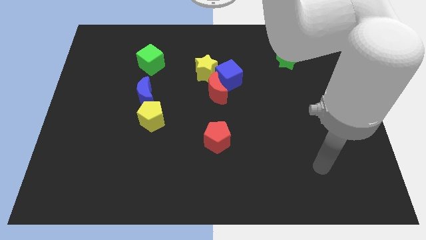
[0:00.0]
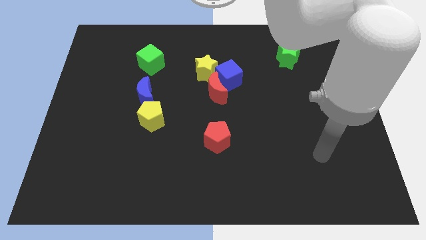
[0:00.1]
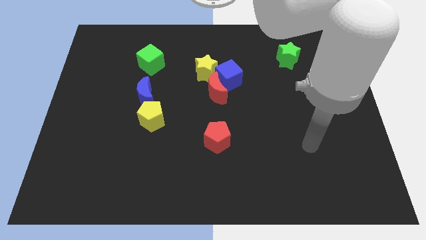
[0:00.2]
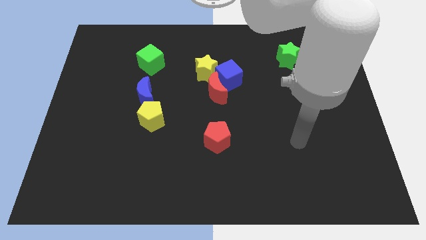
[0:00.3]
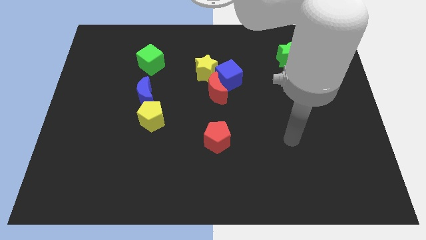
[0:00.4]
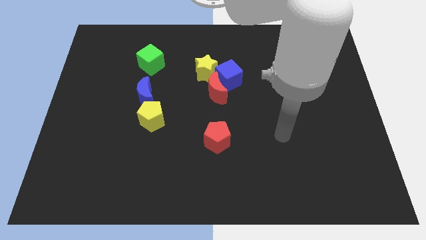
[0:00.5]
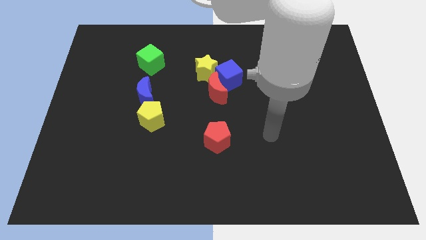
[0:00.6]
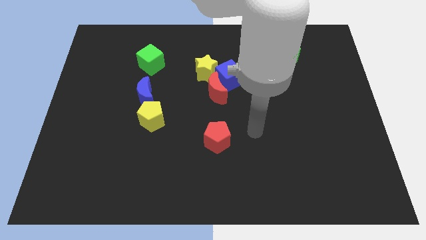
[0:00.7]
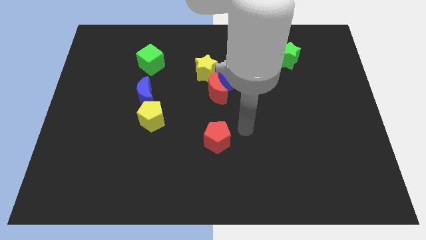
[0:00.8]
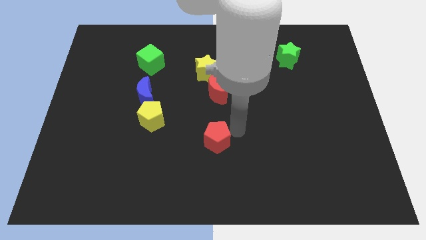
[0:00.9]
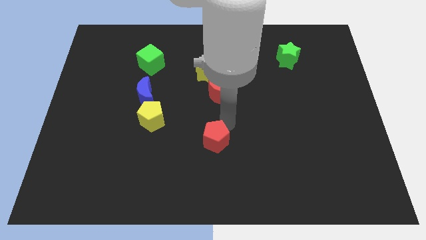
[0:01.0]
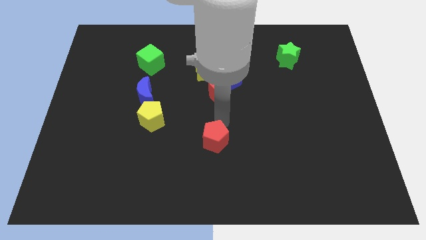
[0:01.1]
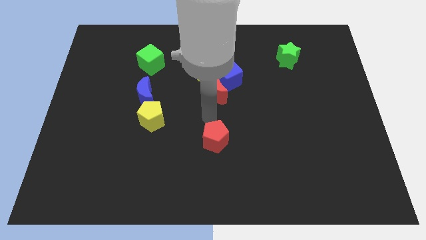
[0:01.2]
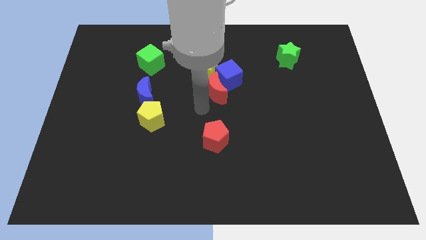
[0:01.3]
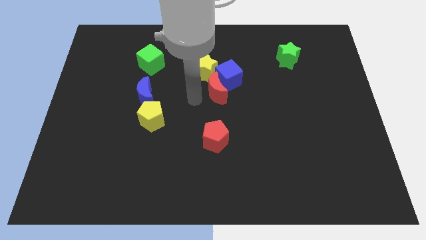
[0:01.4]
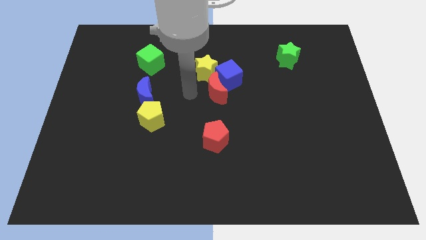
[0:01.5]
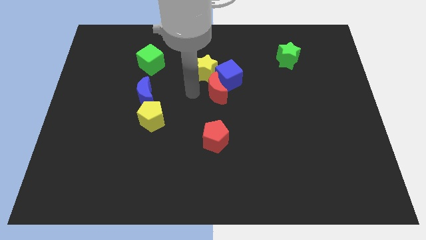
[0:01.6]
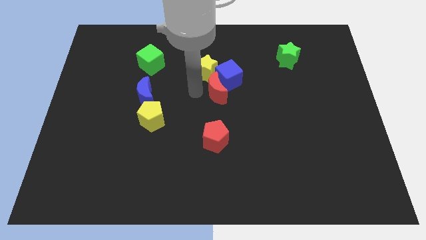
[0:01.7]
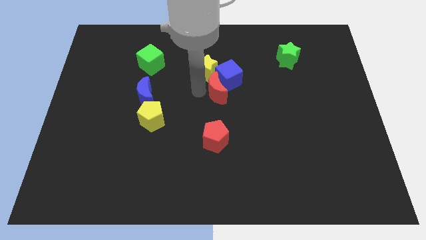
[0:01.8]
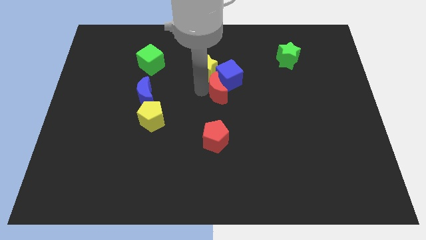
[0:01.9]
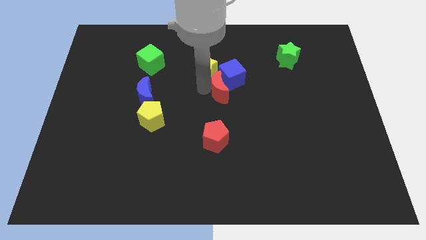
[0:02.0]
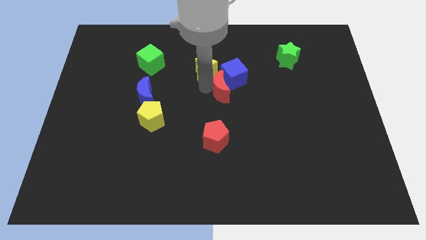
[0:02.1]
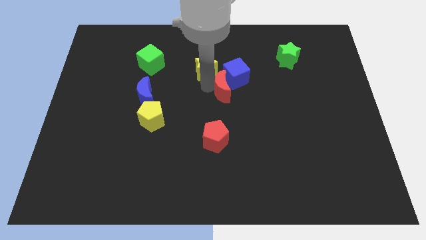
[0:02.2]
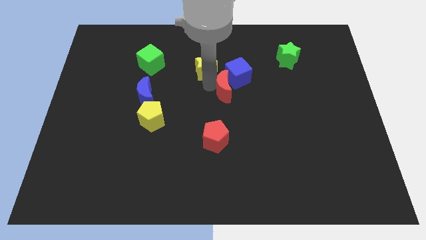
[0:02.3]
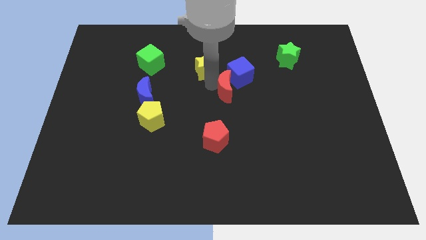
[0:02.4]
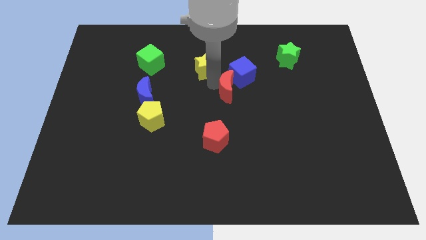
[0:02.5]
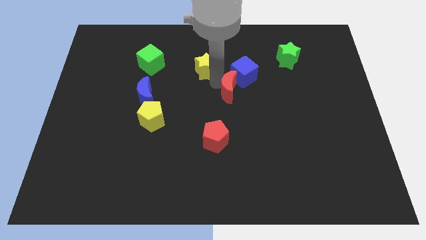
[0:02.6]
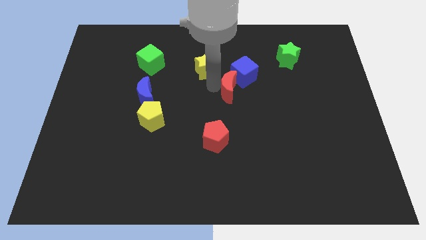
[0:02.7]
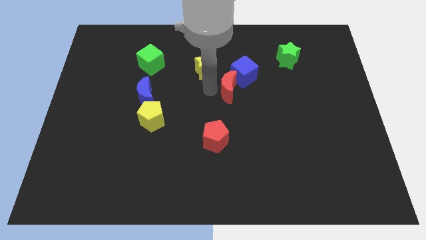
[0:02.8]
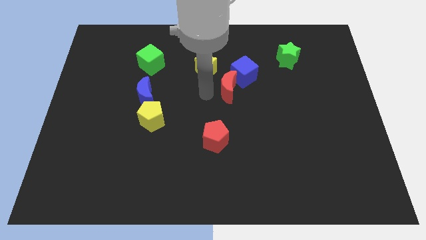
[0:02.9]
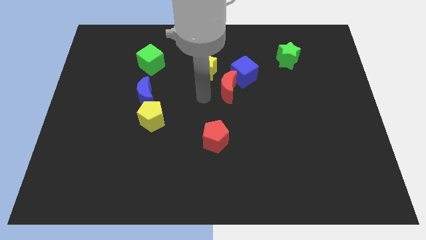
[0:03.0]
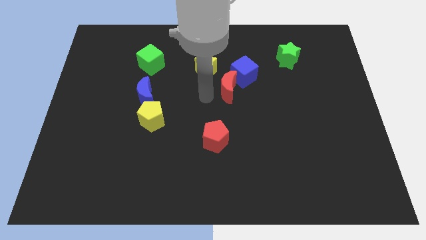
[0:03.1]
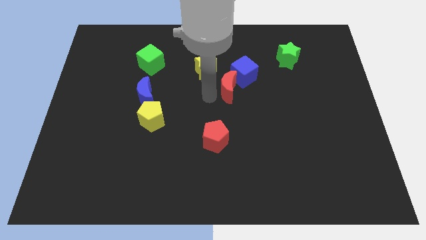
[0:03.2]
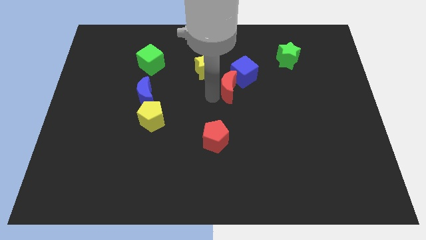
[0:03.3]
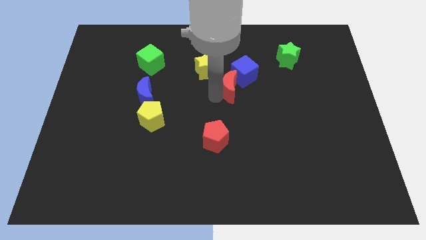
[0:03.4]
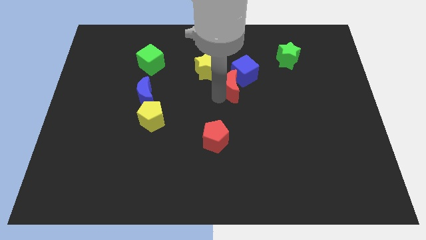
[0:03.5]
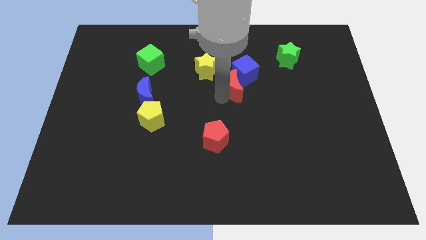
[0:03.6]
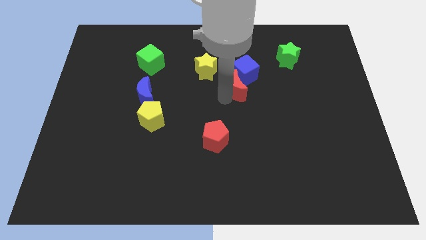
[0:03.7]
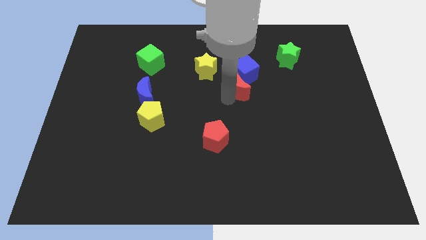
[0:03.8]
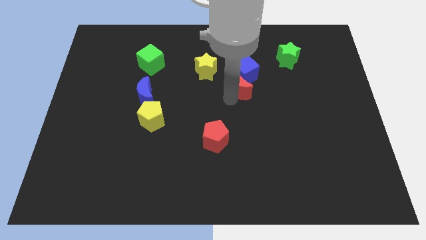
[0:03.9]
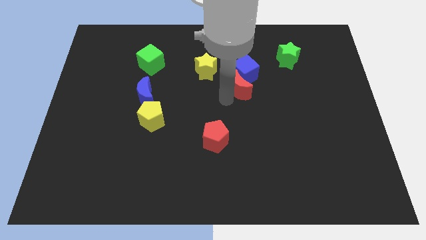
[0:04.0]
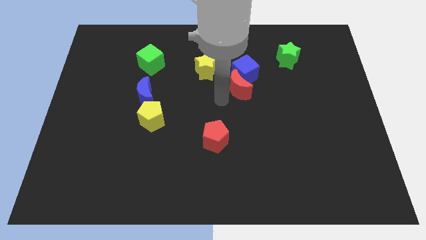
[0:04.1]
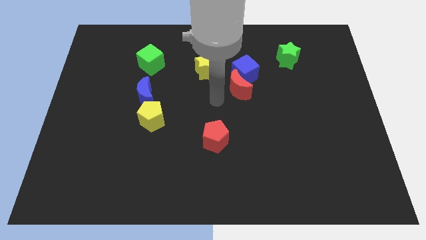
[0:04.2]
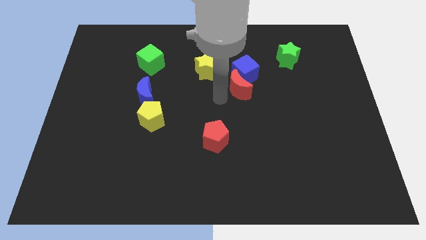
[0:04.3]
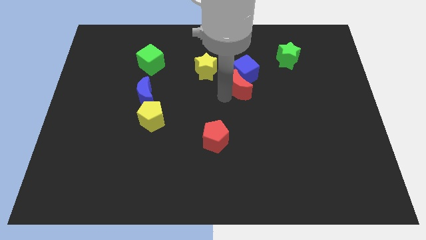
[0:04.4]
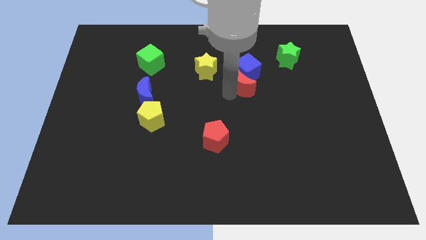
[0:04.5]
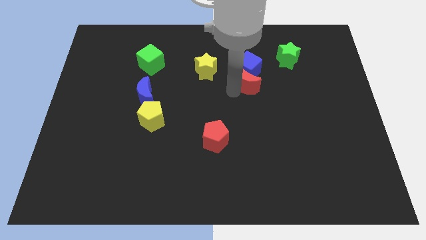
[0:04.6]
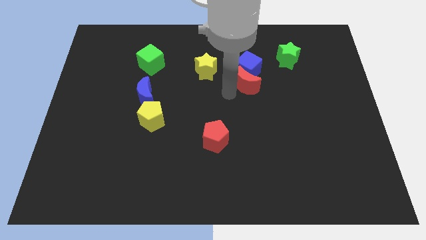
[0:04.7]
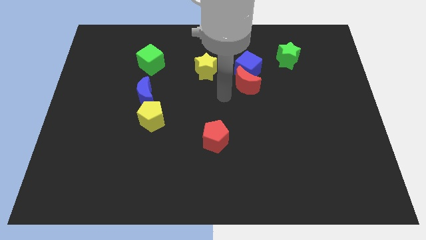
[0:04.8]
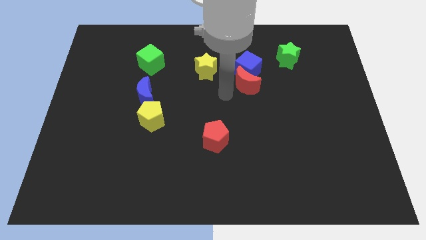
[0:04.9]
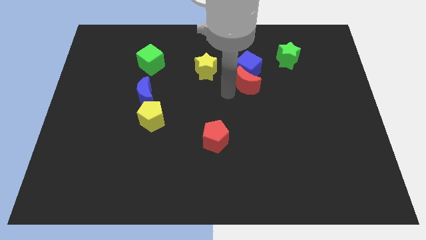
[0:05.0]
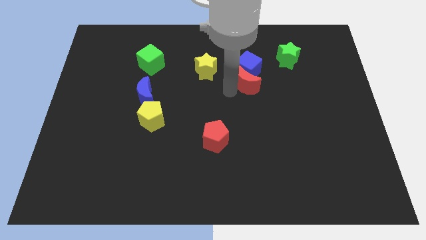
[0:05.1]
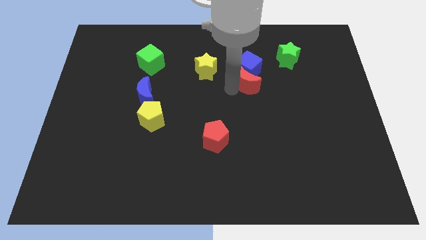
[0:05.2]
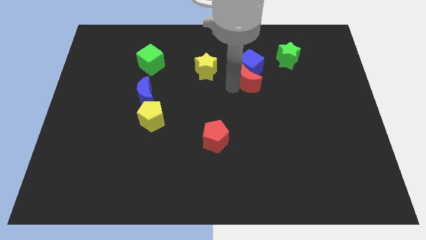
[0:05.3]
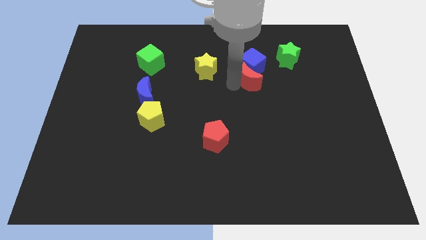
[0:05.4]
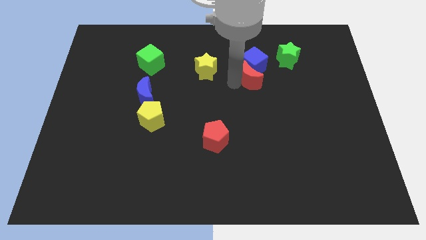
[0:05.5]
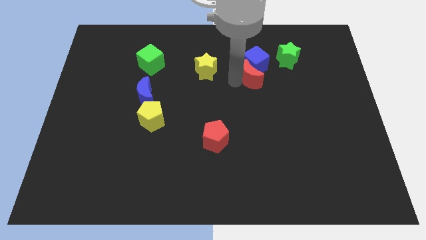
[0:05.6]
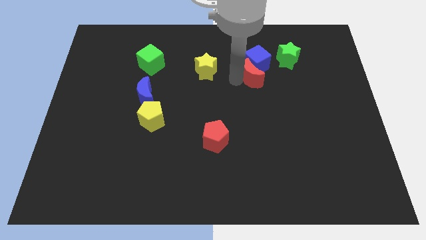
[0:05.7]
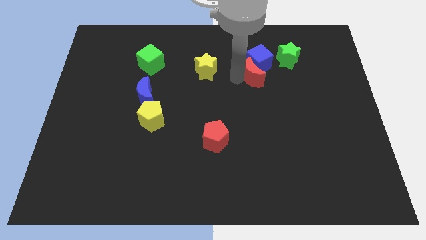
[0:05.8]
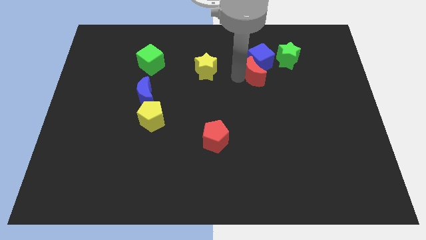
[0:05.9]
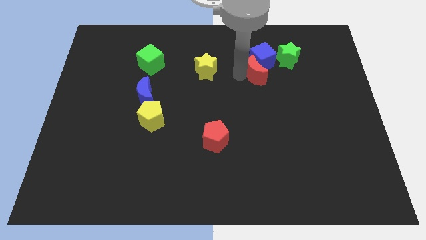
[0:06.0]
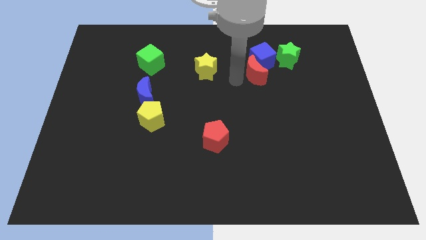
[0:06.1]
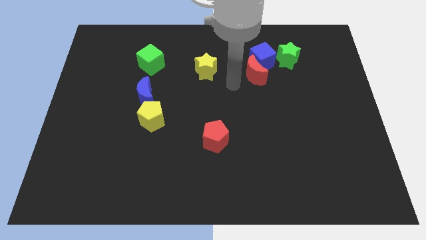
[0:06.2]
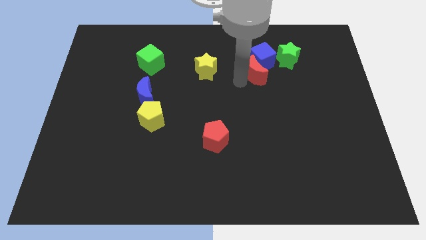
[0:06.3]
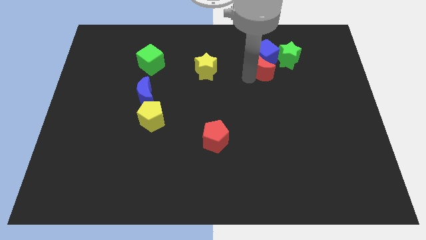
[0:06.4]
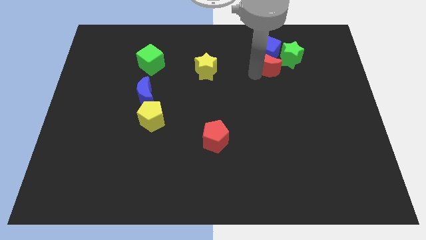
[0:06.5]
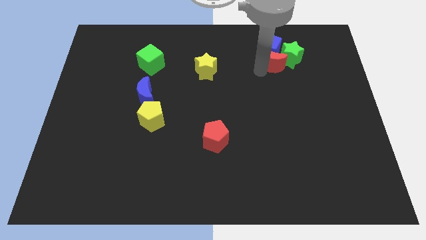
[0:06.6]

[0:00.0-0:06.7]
slide the red moon close to the green star

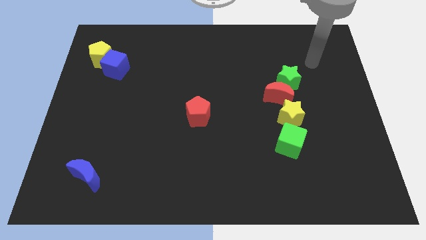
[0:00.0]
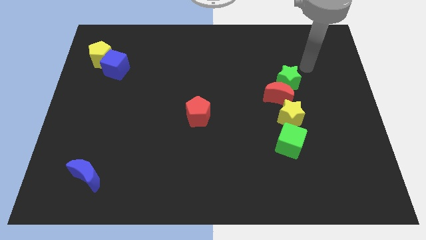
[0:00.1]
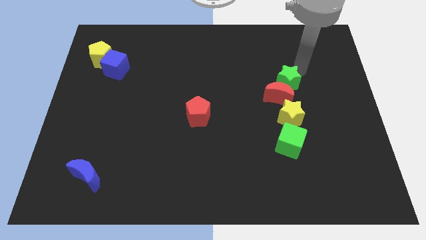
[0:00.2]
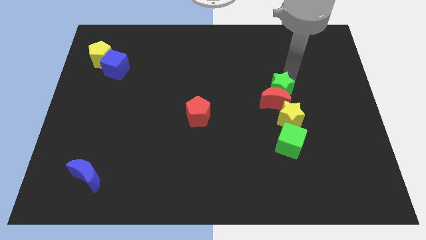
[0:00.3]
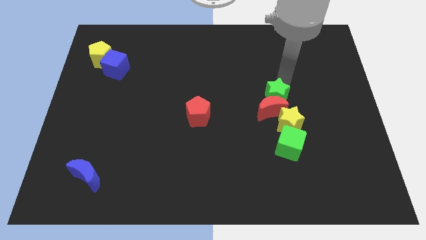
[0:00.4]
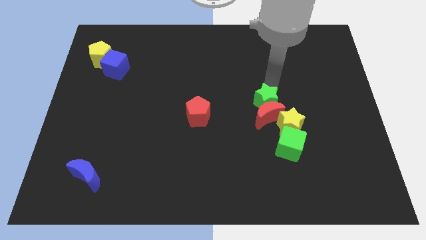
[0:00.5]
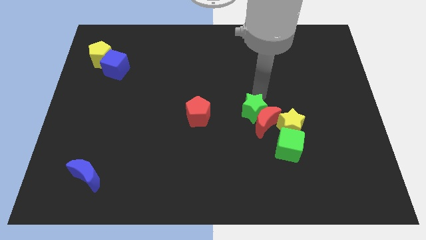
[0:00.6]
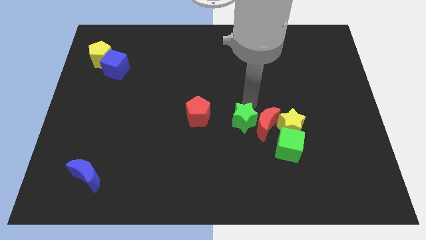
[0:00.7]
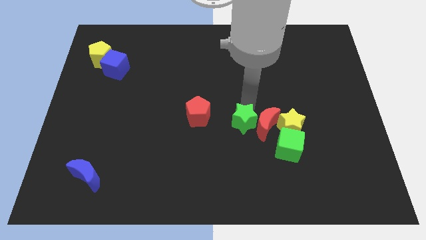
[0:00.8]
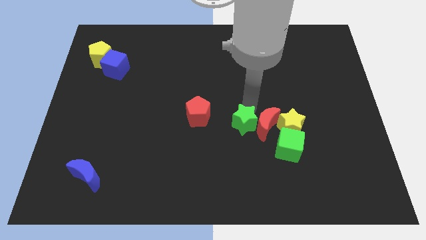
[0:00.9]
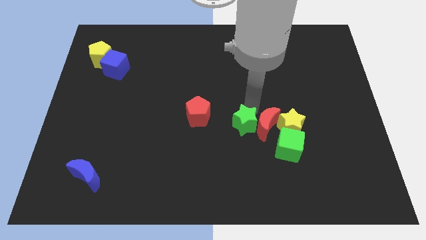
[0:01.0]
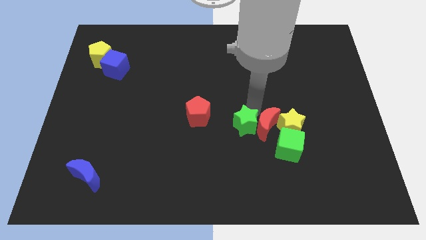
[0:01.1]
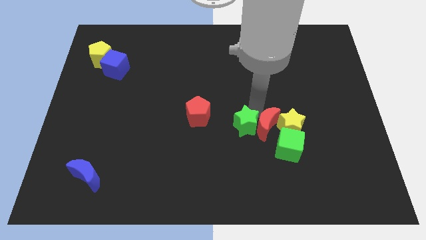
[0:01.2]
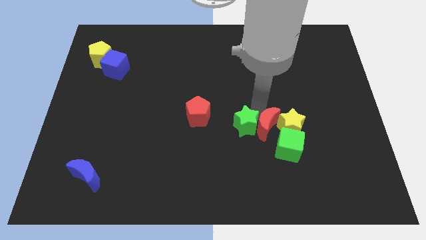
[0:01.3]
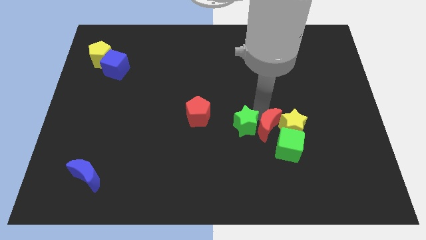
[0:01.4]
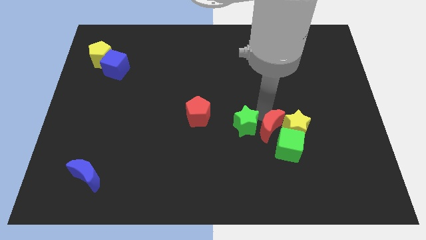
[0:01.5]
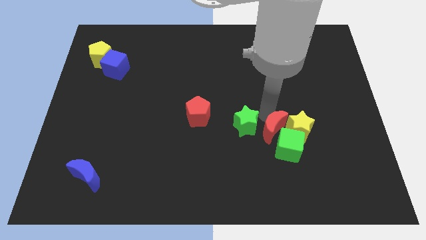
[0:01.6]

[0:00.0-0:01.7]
slide the red moon towards the green cube
